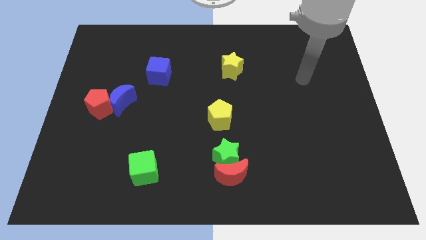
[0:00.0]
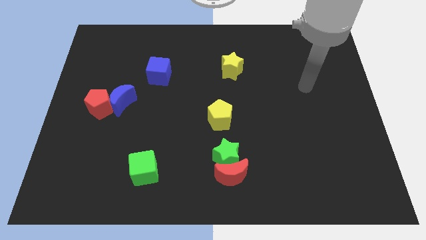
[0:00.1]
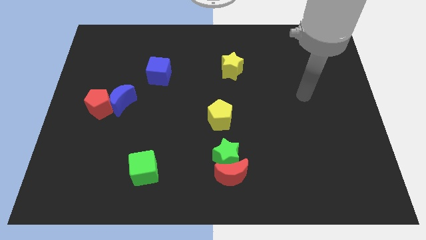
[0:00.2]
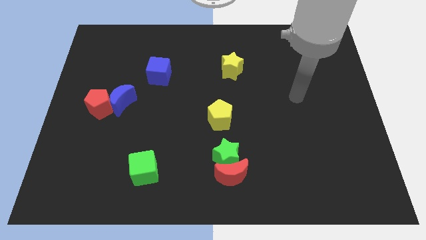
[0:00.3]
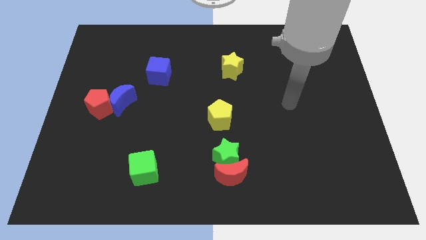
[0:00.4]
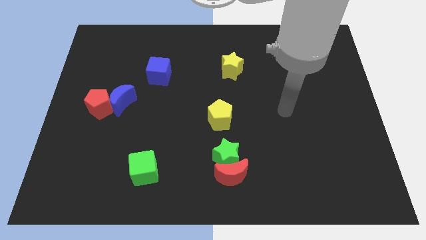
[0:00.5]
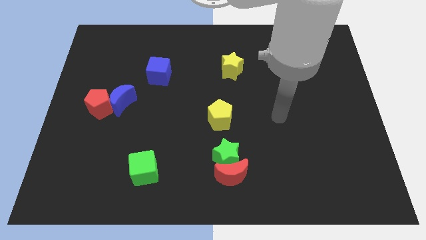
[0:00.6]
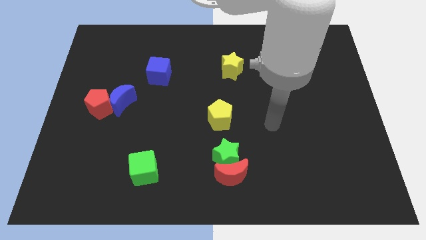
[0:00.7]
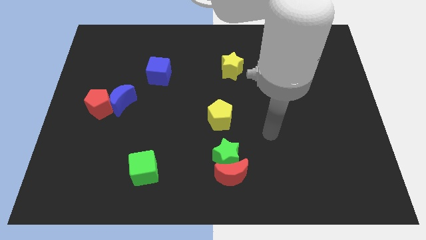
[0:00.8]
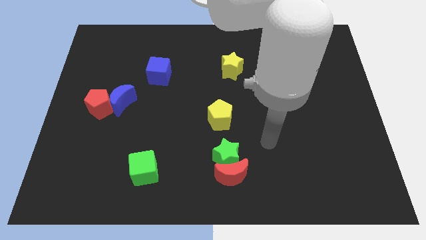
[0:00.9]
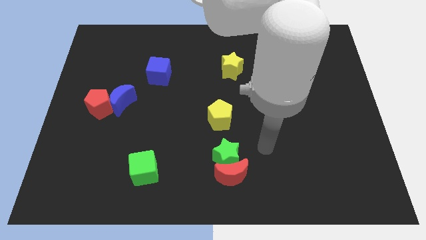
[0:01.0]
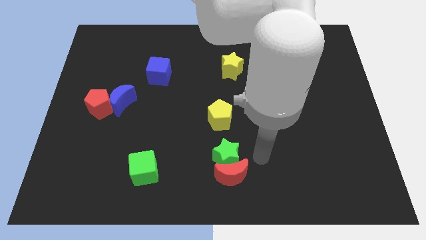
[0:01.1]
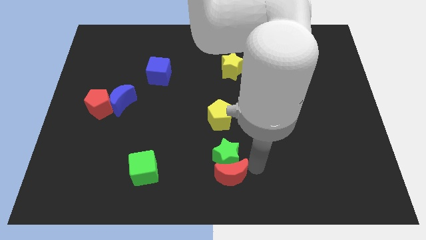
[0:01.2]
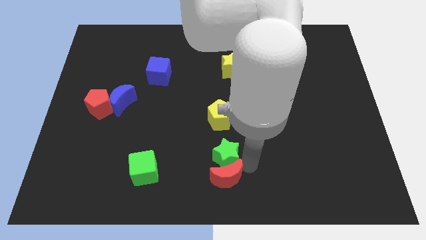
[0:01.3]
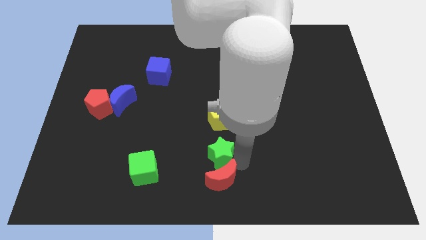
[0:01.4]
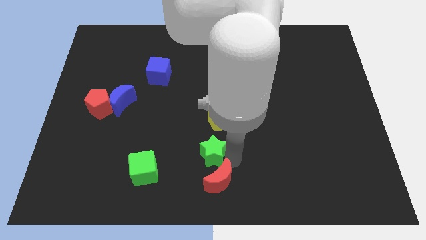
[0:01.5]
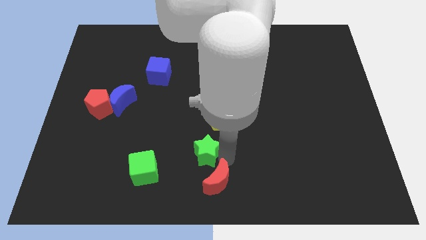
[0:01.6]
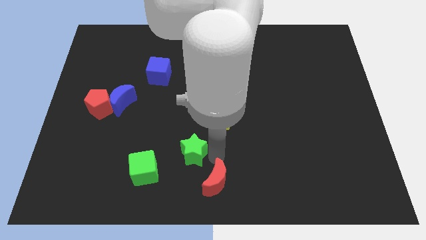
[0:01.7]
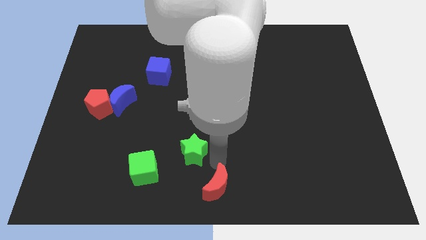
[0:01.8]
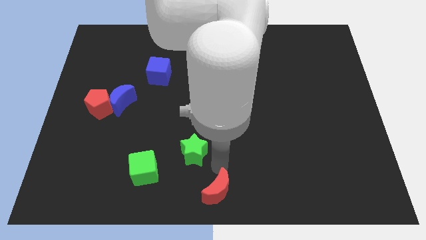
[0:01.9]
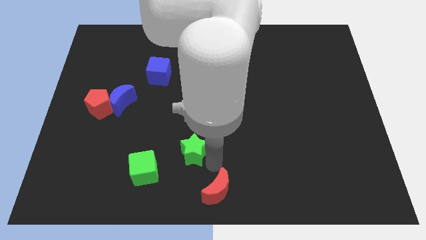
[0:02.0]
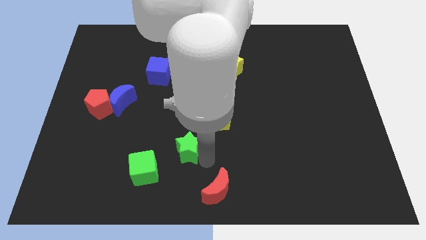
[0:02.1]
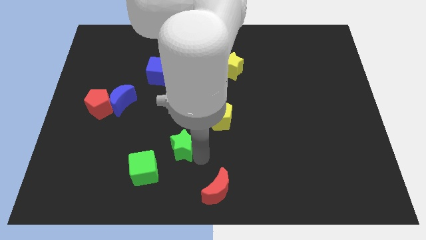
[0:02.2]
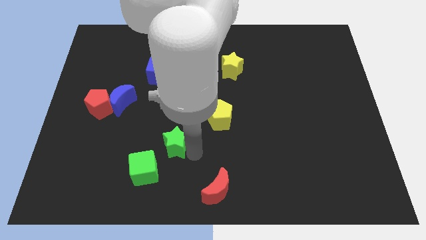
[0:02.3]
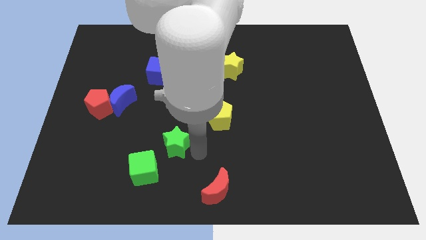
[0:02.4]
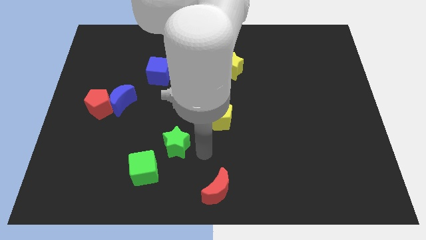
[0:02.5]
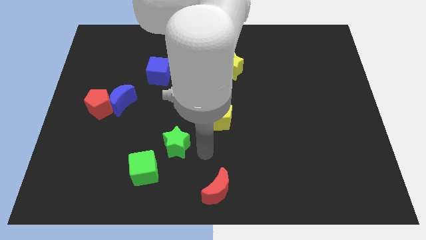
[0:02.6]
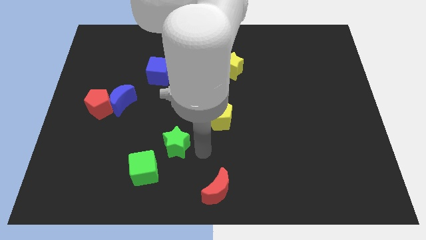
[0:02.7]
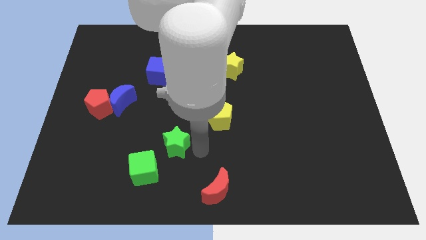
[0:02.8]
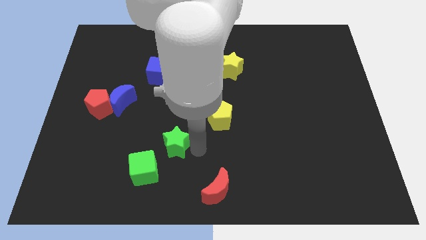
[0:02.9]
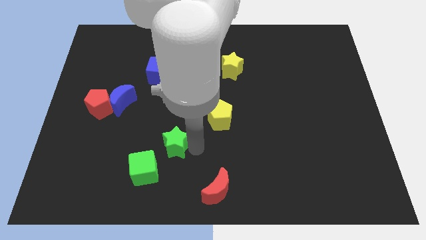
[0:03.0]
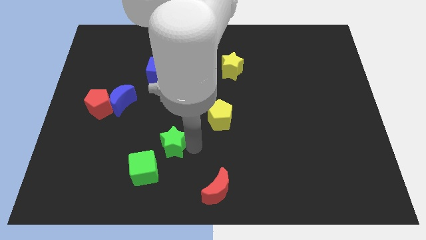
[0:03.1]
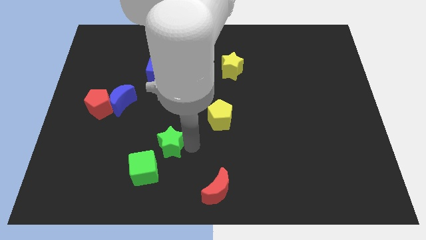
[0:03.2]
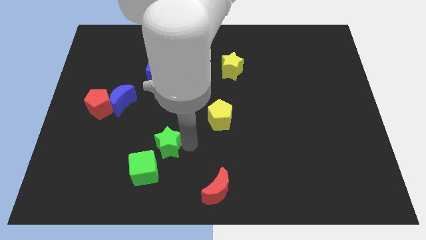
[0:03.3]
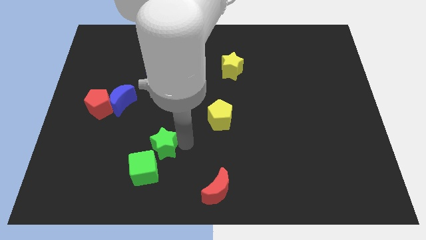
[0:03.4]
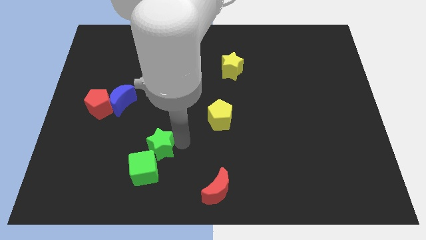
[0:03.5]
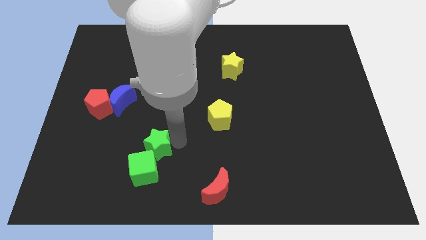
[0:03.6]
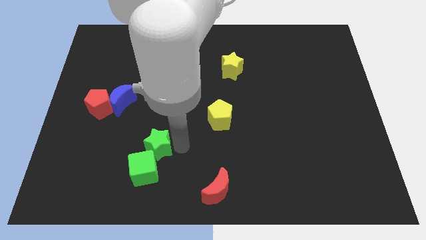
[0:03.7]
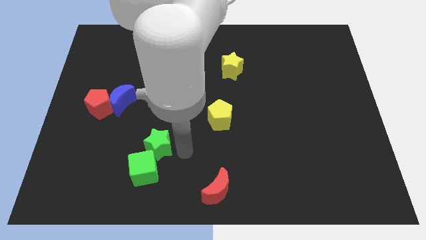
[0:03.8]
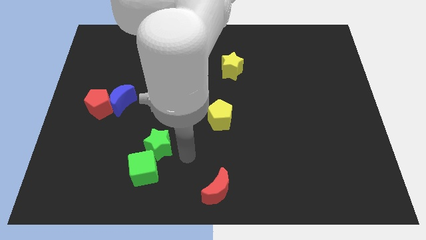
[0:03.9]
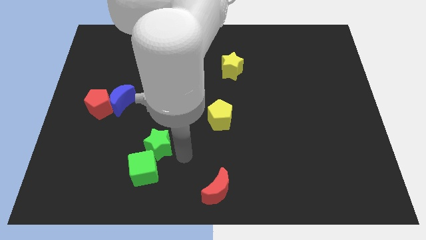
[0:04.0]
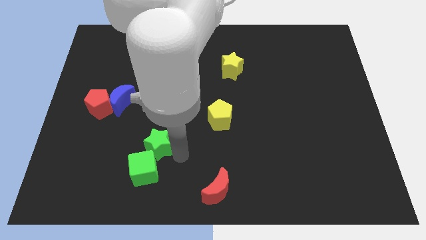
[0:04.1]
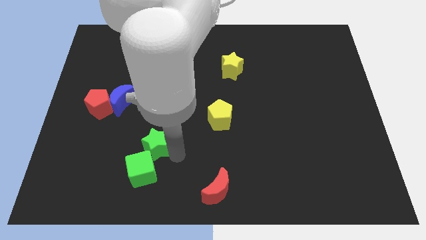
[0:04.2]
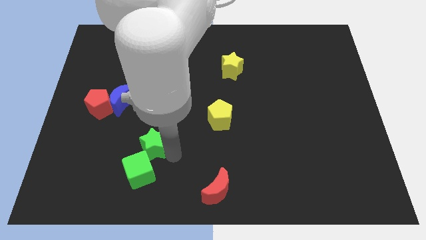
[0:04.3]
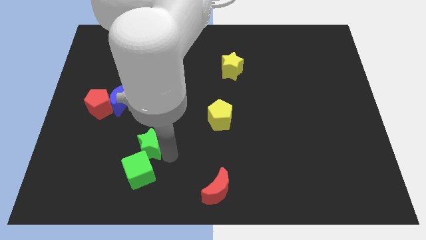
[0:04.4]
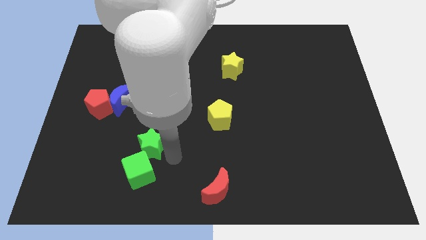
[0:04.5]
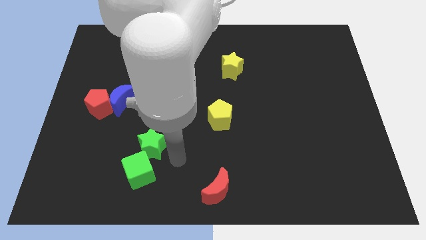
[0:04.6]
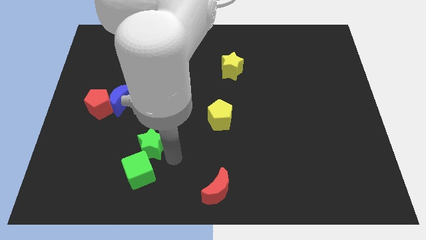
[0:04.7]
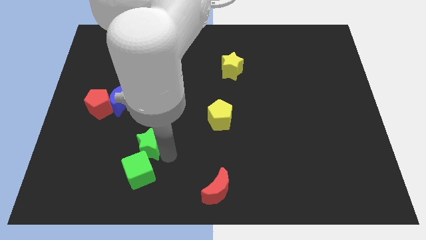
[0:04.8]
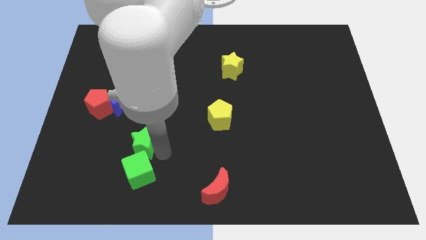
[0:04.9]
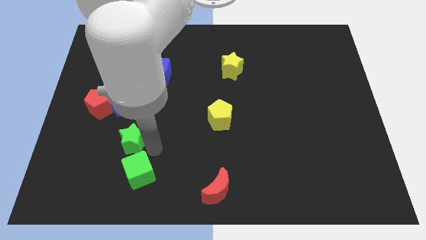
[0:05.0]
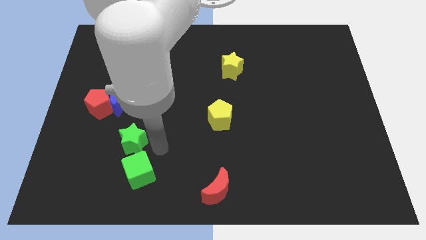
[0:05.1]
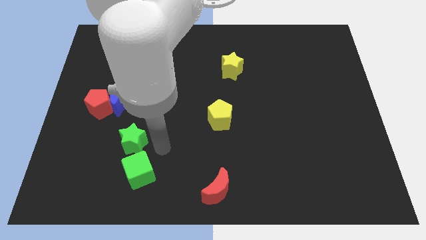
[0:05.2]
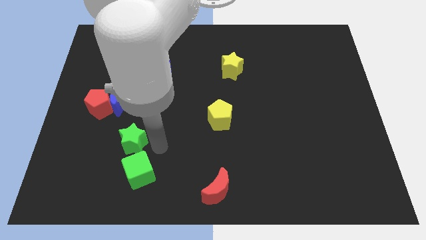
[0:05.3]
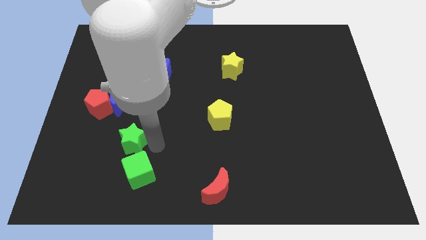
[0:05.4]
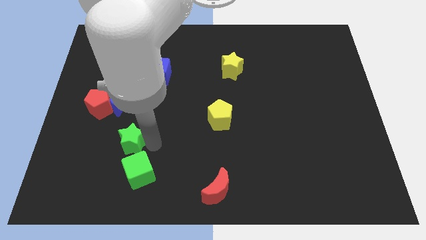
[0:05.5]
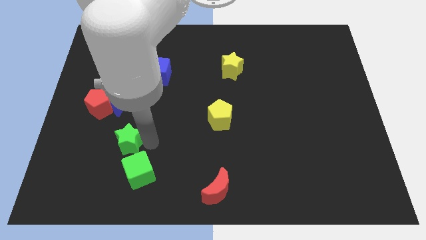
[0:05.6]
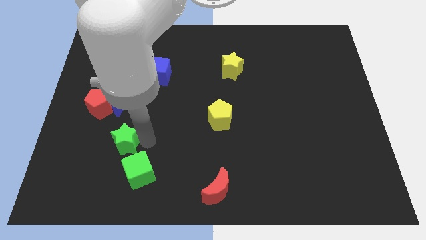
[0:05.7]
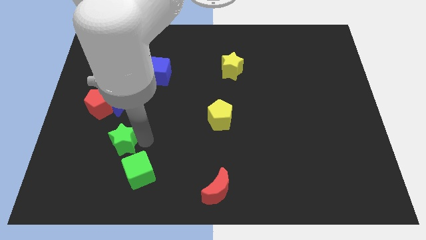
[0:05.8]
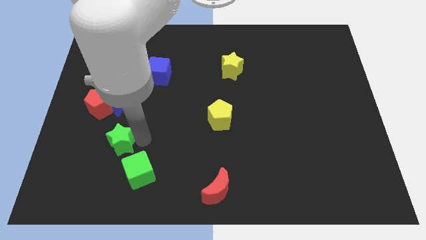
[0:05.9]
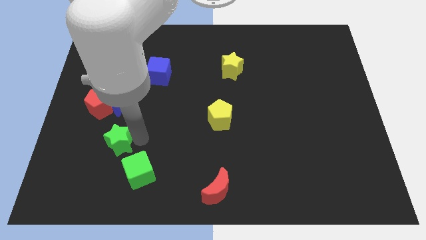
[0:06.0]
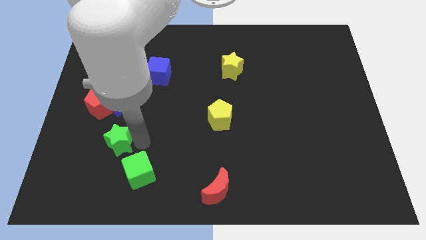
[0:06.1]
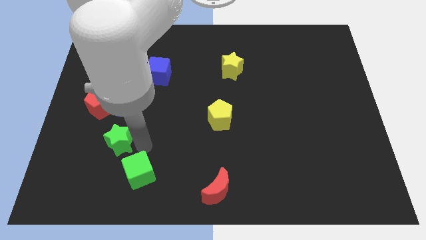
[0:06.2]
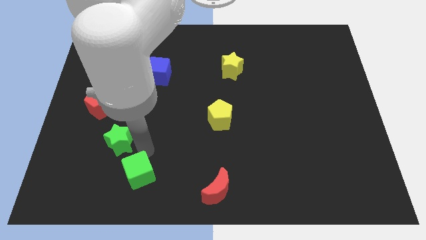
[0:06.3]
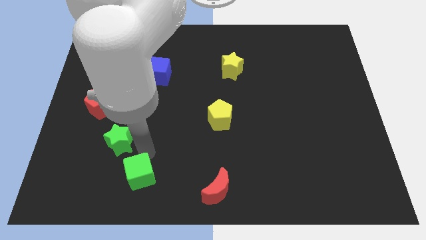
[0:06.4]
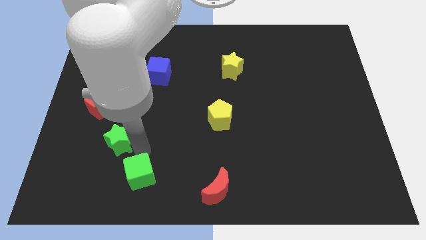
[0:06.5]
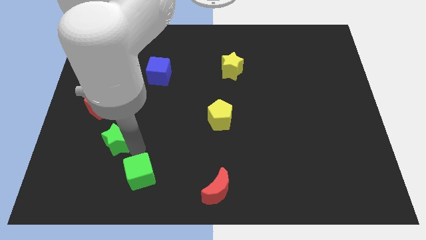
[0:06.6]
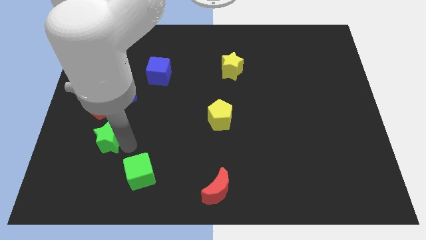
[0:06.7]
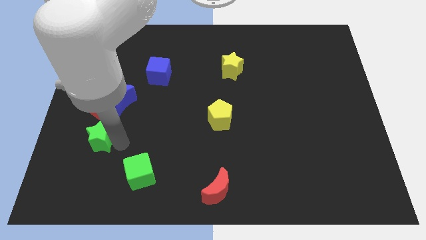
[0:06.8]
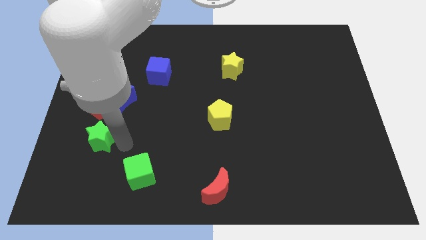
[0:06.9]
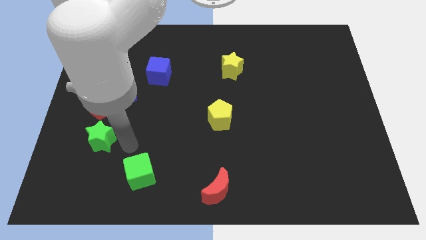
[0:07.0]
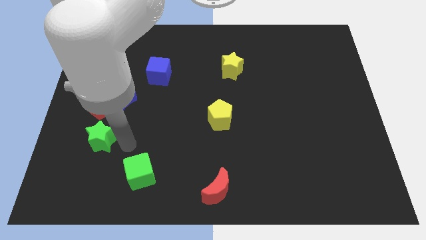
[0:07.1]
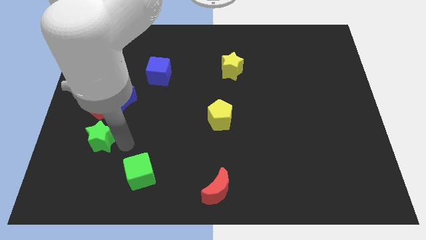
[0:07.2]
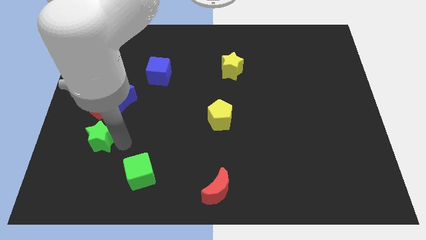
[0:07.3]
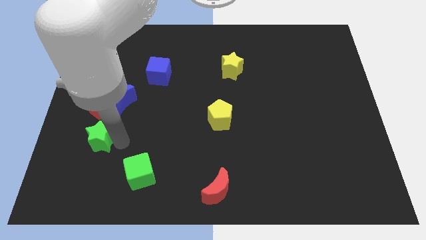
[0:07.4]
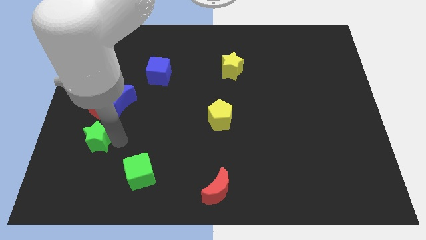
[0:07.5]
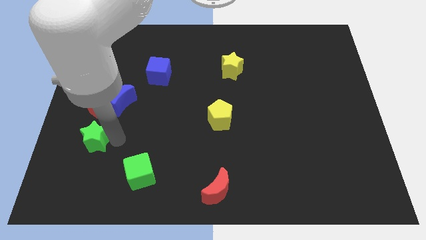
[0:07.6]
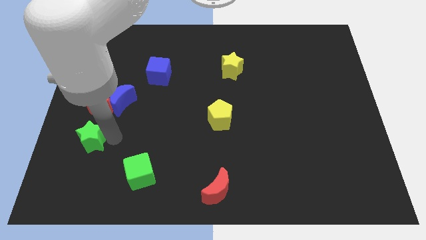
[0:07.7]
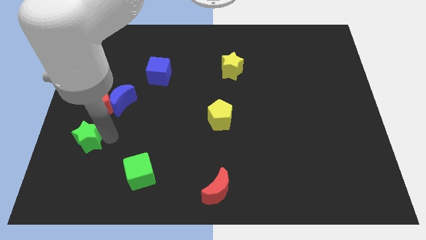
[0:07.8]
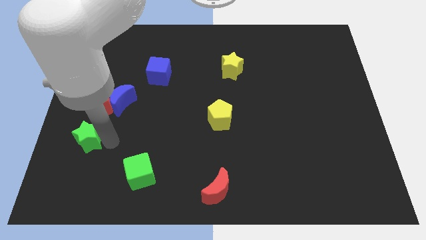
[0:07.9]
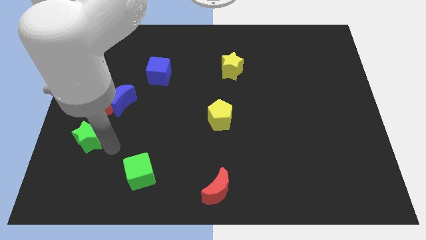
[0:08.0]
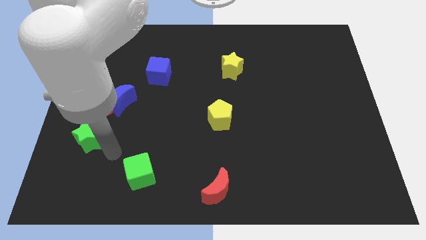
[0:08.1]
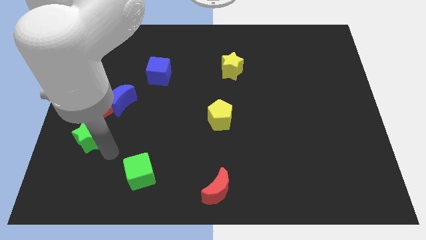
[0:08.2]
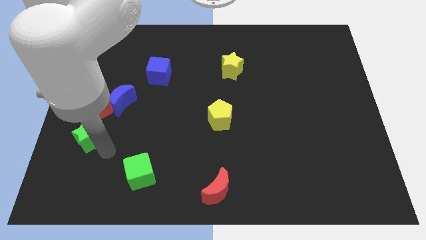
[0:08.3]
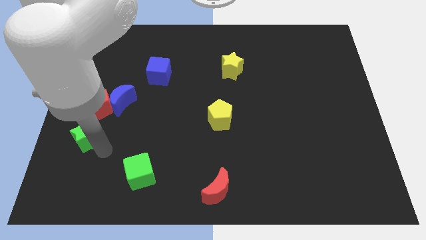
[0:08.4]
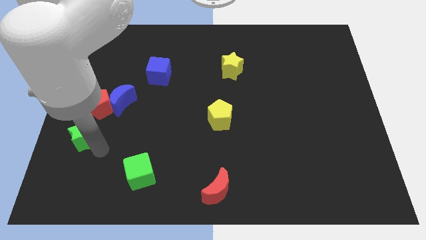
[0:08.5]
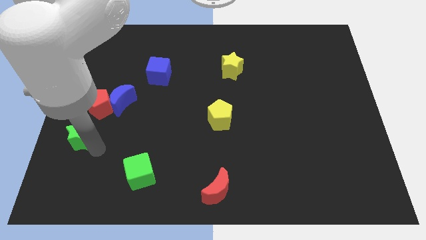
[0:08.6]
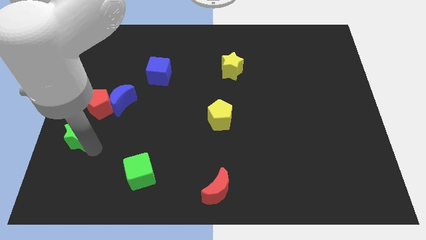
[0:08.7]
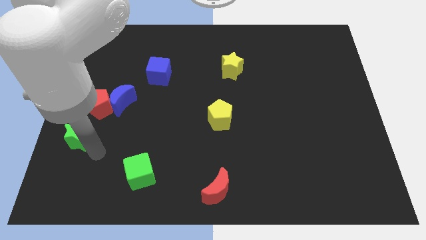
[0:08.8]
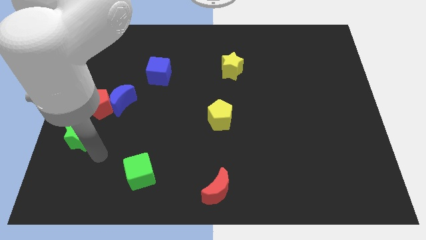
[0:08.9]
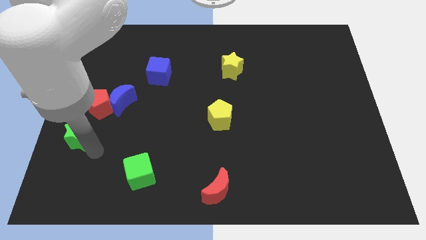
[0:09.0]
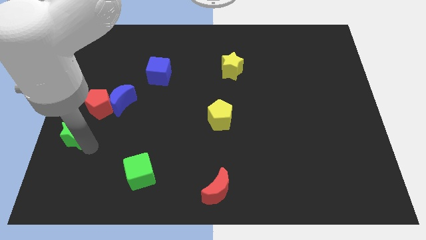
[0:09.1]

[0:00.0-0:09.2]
slide the green star to the center left
